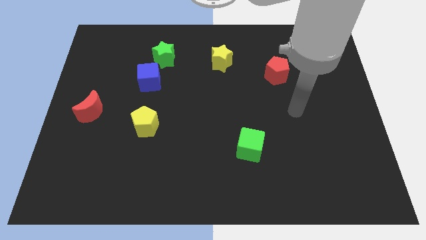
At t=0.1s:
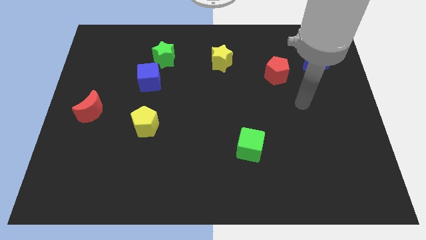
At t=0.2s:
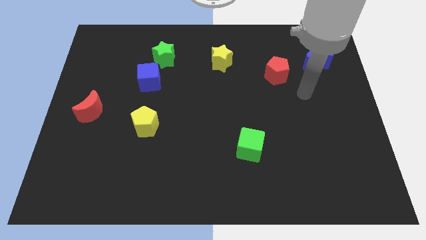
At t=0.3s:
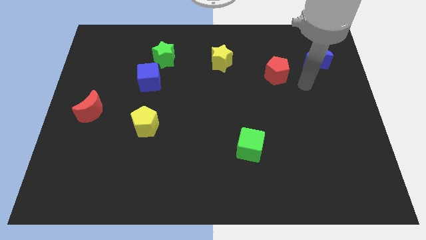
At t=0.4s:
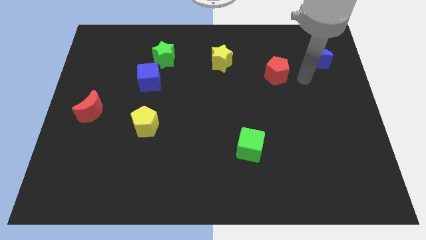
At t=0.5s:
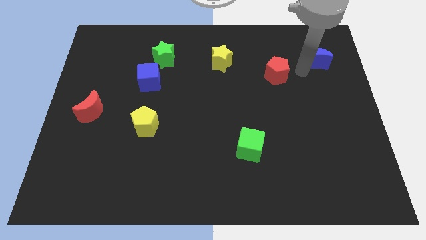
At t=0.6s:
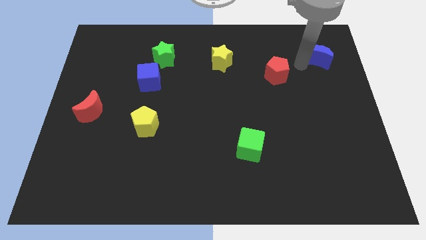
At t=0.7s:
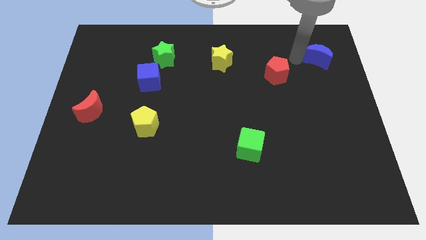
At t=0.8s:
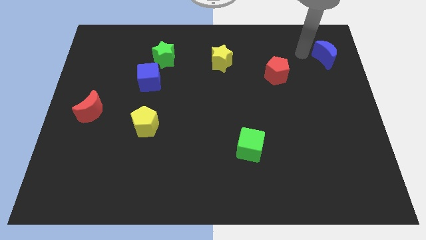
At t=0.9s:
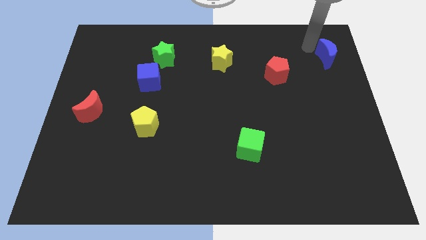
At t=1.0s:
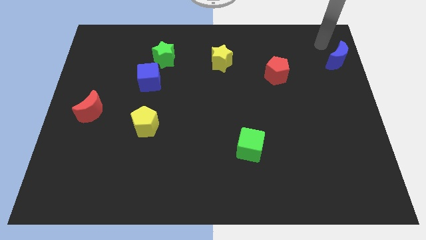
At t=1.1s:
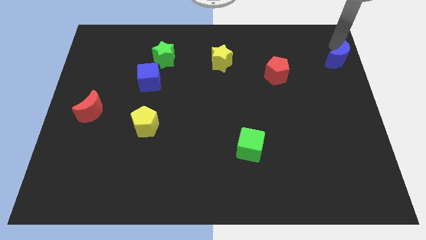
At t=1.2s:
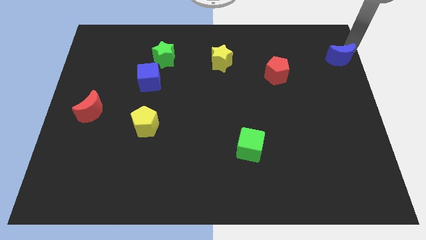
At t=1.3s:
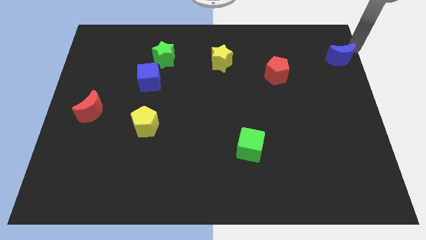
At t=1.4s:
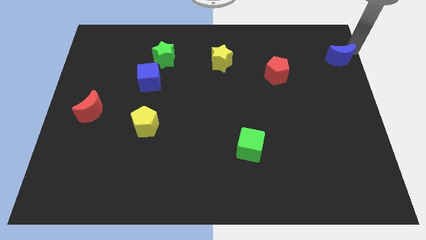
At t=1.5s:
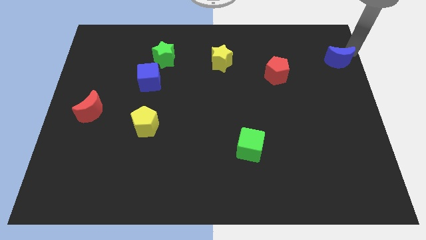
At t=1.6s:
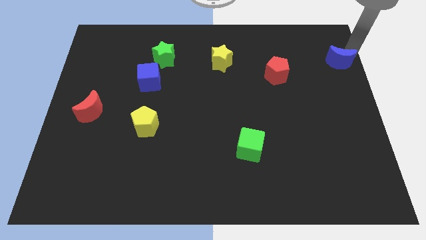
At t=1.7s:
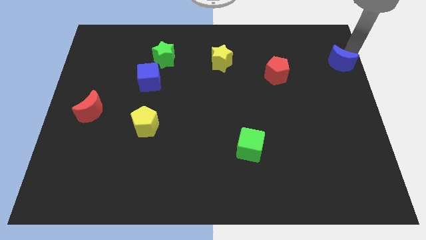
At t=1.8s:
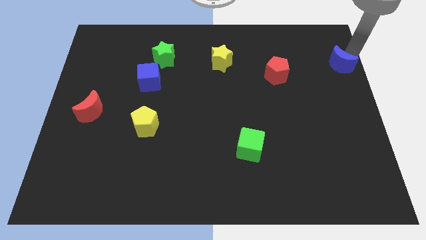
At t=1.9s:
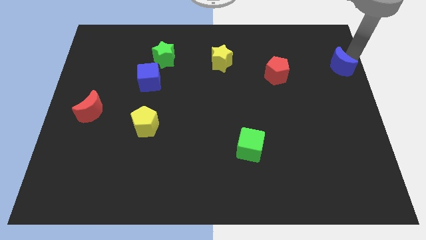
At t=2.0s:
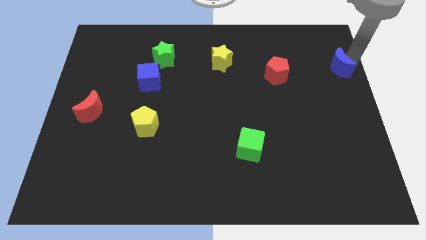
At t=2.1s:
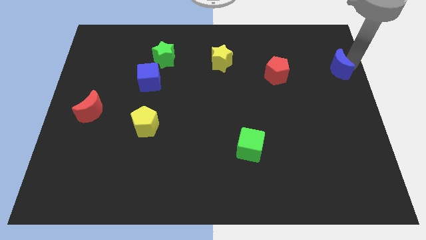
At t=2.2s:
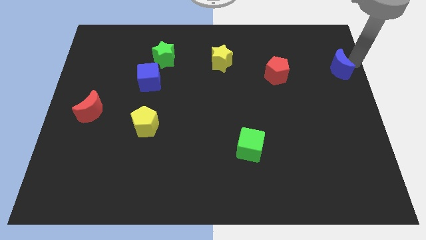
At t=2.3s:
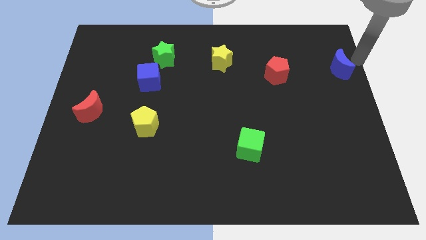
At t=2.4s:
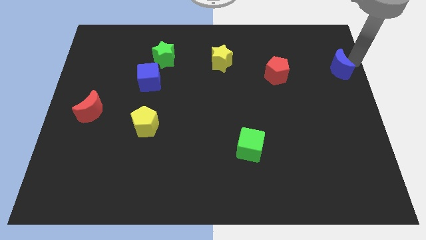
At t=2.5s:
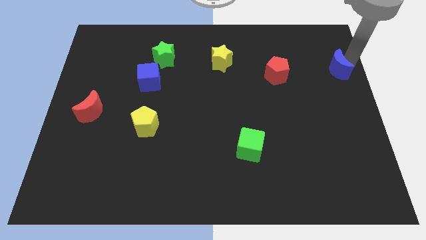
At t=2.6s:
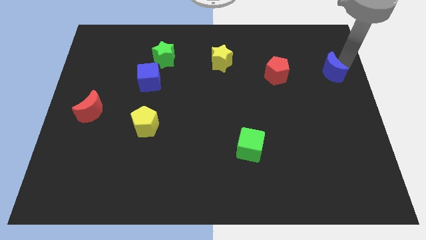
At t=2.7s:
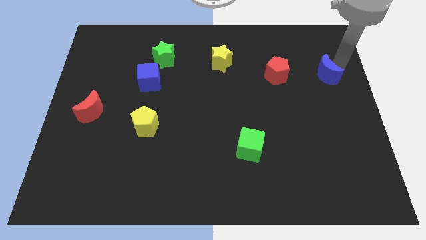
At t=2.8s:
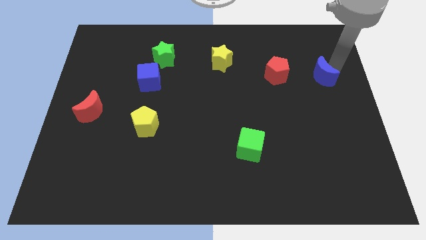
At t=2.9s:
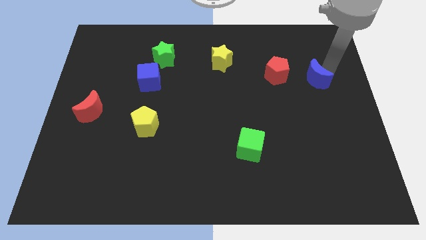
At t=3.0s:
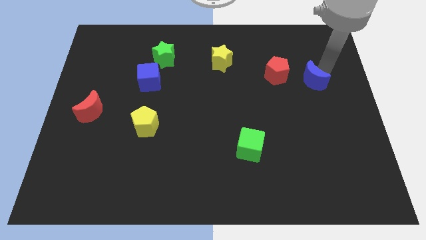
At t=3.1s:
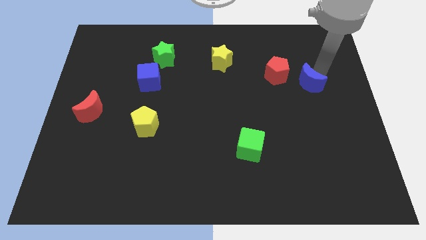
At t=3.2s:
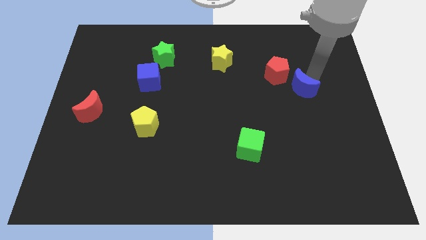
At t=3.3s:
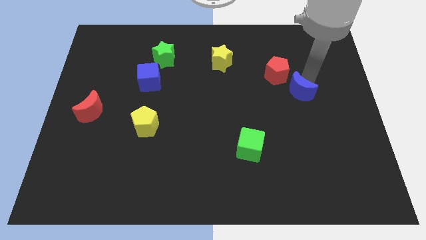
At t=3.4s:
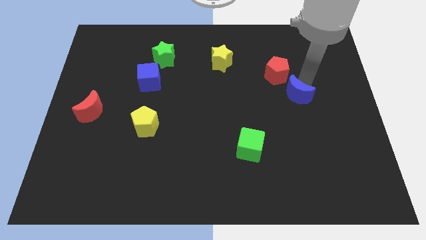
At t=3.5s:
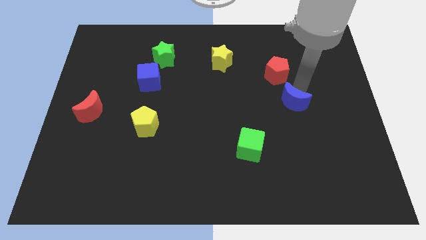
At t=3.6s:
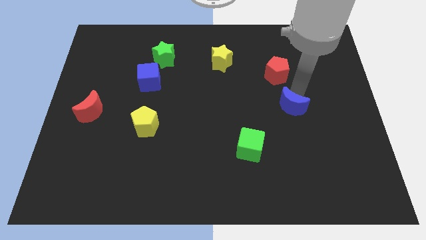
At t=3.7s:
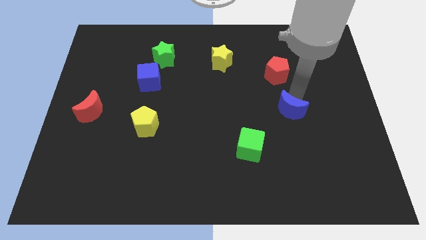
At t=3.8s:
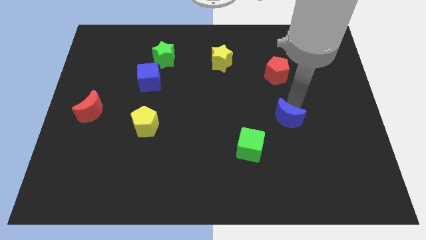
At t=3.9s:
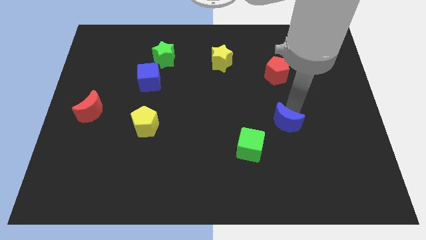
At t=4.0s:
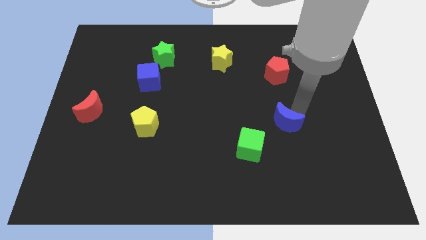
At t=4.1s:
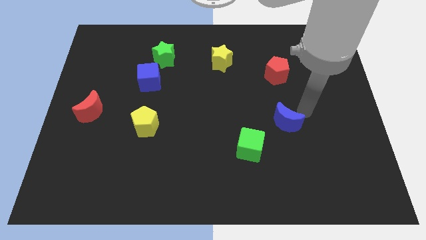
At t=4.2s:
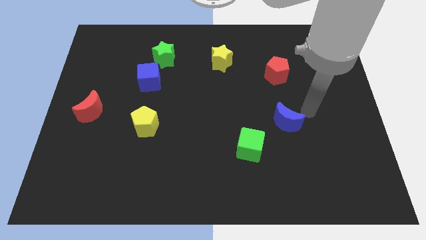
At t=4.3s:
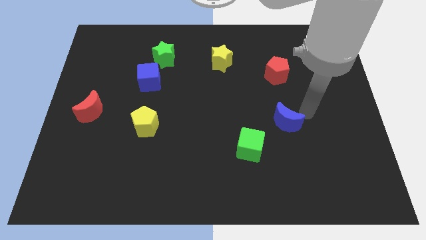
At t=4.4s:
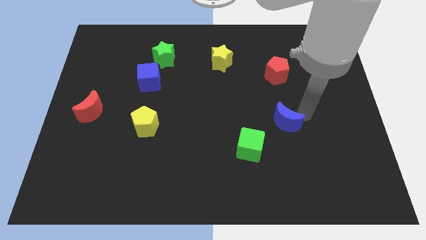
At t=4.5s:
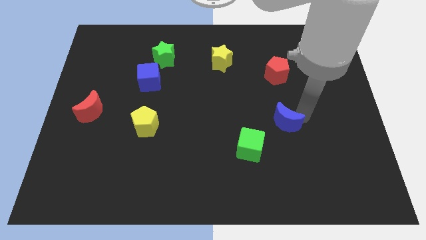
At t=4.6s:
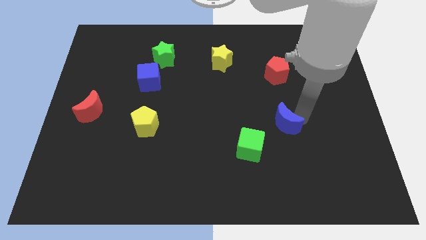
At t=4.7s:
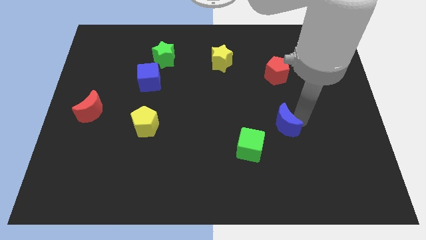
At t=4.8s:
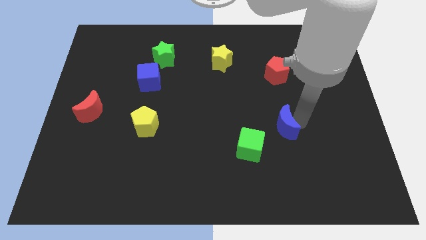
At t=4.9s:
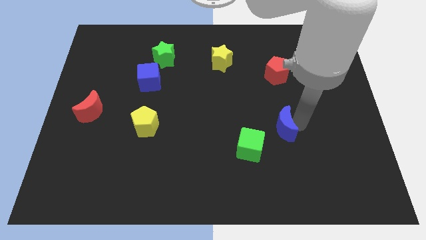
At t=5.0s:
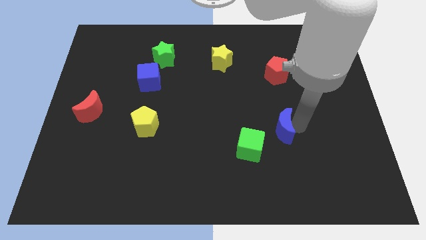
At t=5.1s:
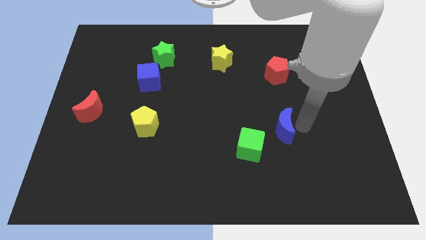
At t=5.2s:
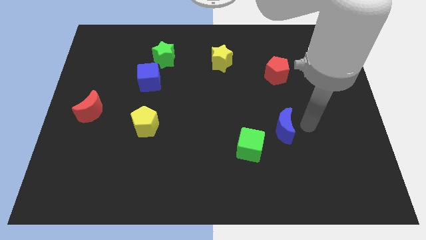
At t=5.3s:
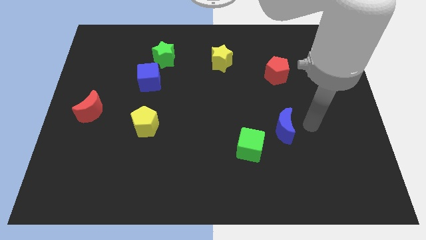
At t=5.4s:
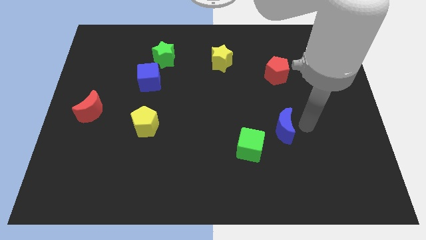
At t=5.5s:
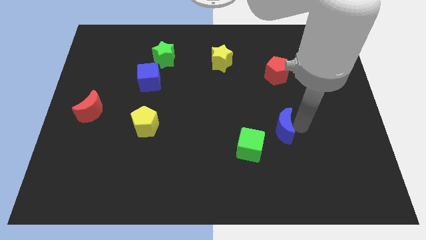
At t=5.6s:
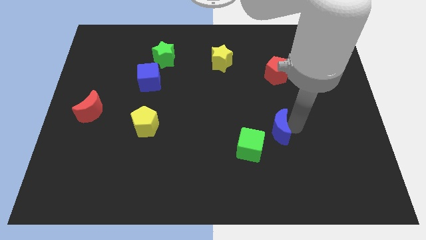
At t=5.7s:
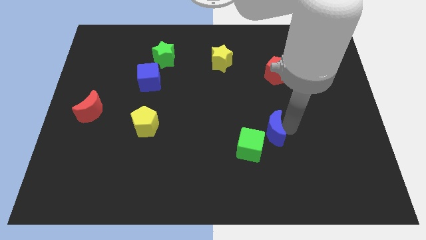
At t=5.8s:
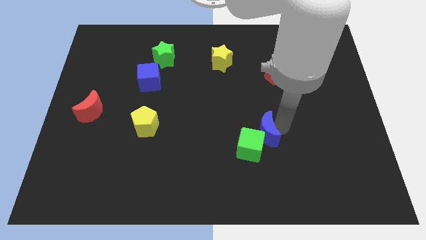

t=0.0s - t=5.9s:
slide the blue moon close to the green cube

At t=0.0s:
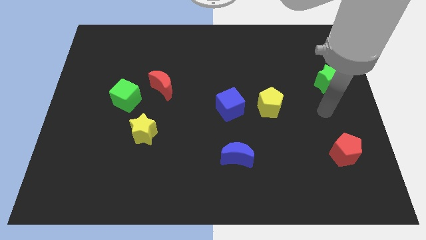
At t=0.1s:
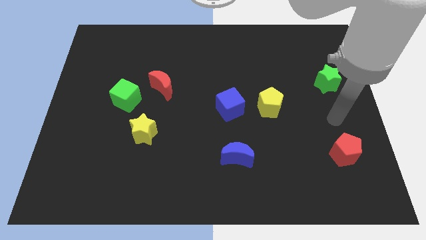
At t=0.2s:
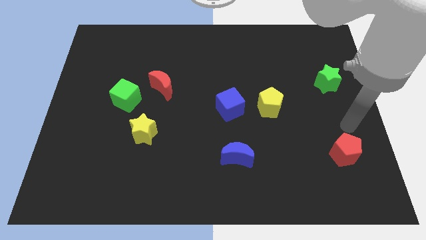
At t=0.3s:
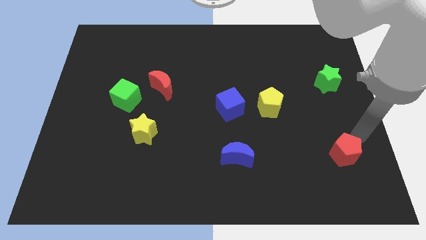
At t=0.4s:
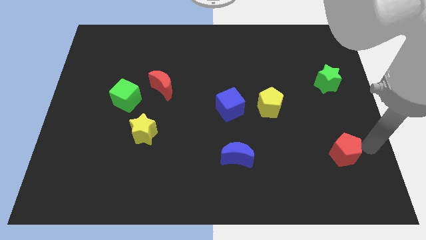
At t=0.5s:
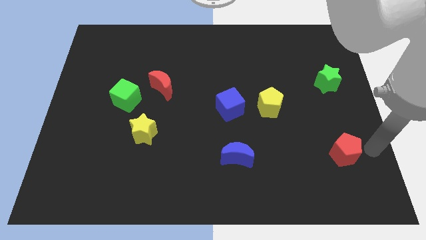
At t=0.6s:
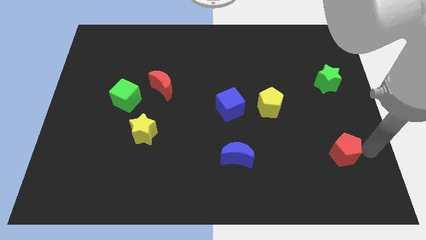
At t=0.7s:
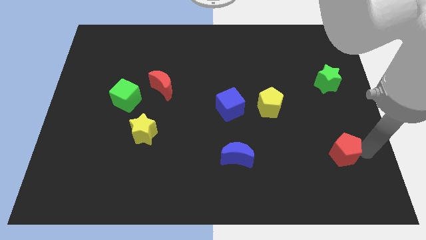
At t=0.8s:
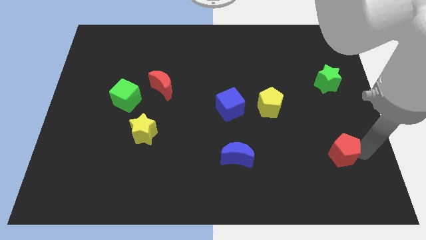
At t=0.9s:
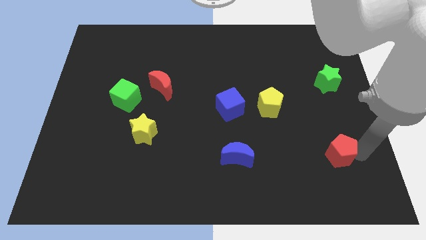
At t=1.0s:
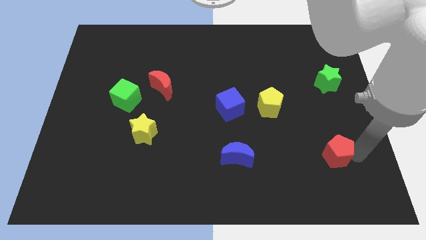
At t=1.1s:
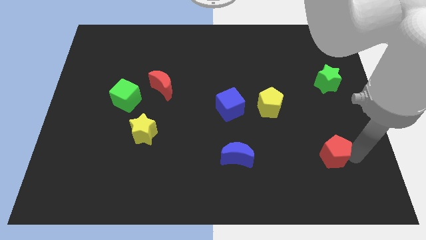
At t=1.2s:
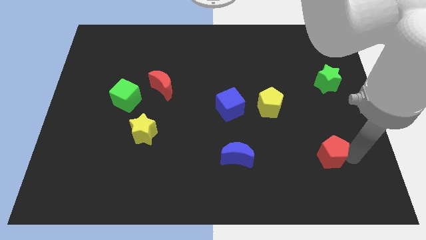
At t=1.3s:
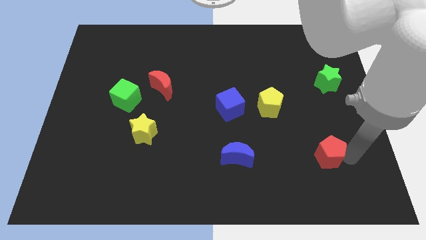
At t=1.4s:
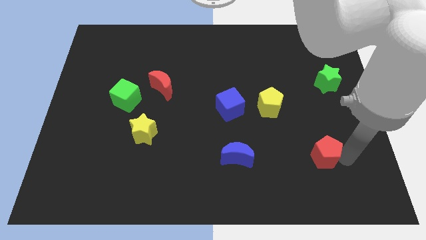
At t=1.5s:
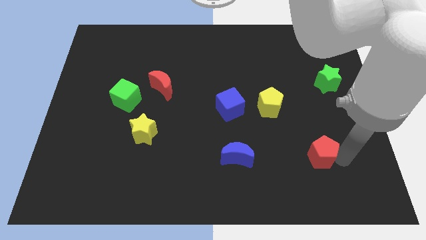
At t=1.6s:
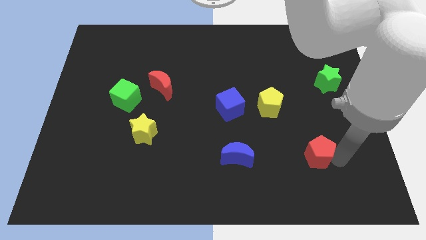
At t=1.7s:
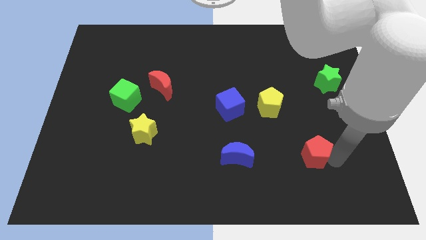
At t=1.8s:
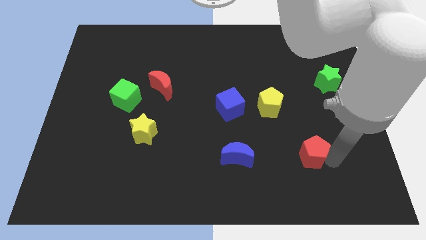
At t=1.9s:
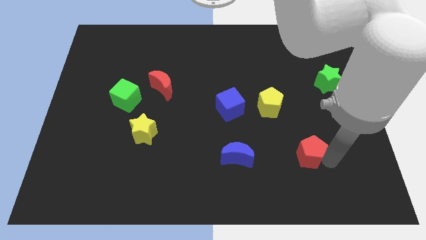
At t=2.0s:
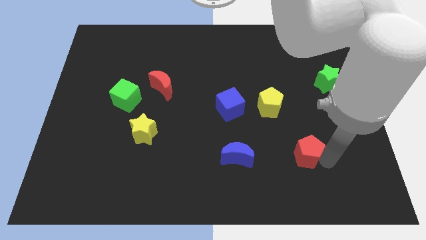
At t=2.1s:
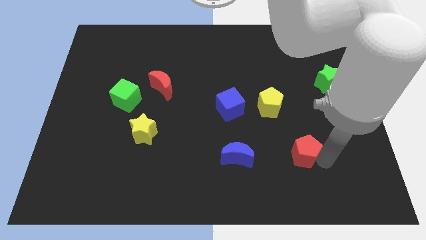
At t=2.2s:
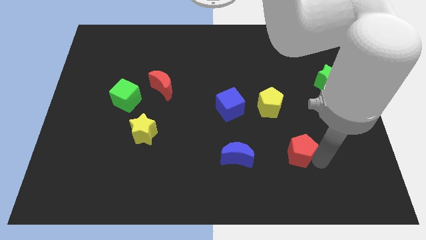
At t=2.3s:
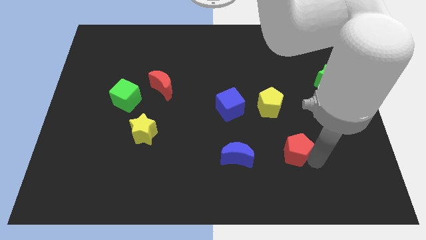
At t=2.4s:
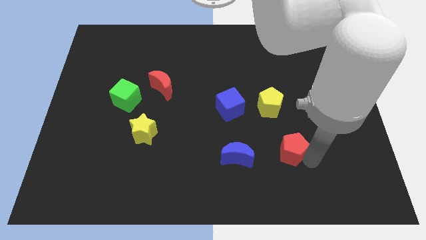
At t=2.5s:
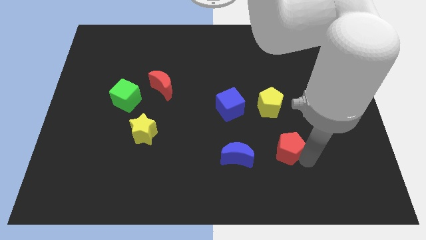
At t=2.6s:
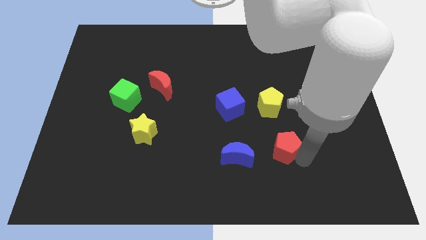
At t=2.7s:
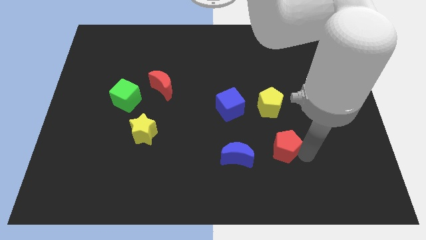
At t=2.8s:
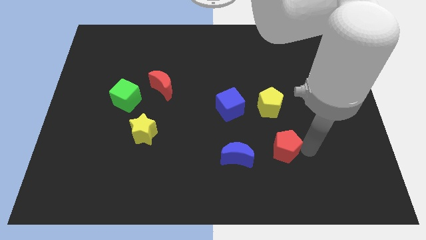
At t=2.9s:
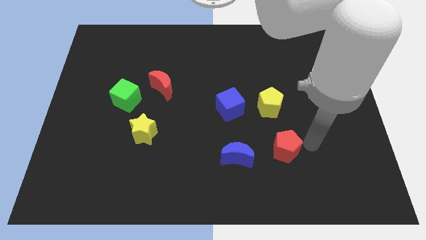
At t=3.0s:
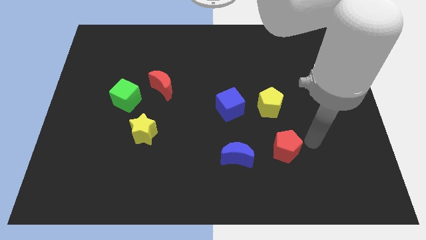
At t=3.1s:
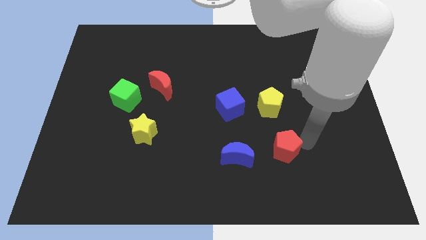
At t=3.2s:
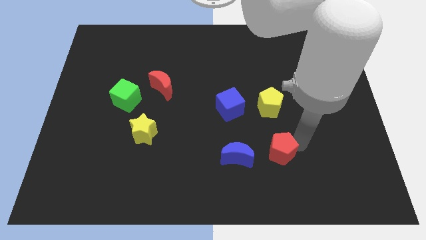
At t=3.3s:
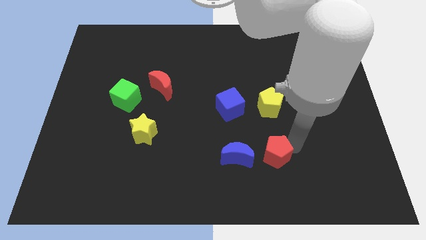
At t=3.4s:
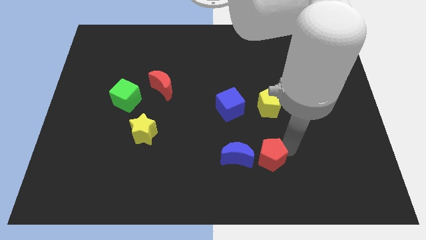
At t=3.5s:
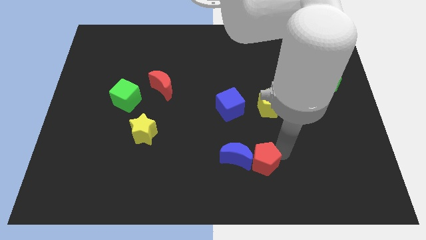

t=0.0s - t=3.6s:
put the red pentagon close to the blue moon
